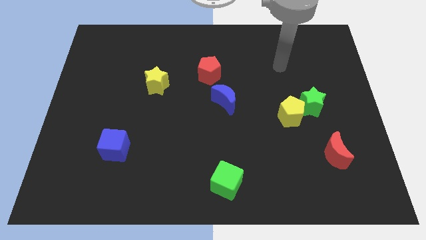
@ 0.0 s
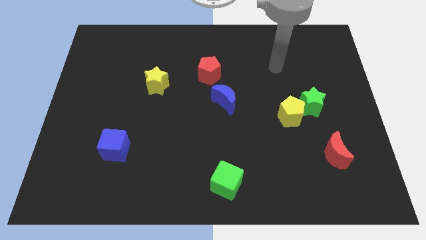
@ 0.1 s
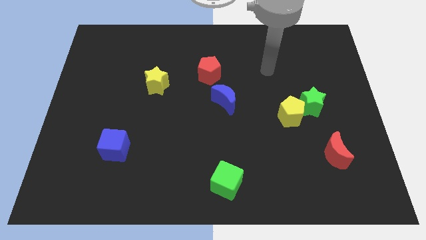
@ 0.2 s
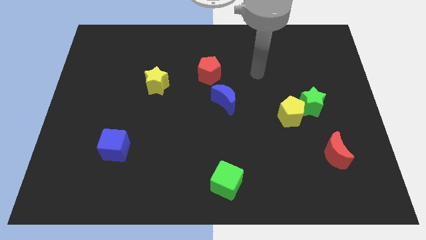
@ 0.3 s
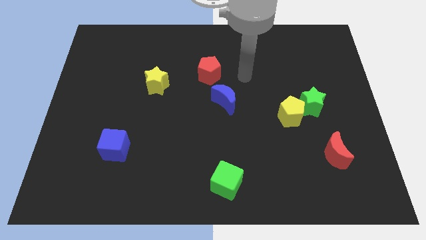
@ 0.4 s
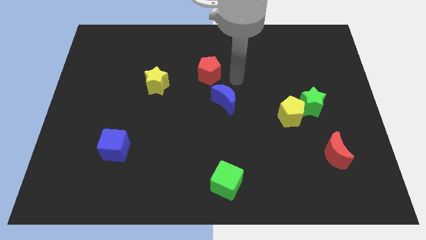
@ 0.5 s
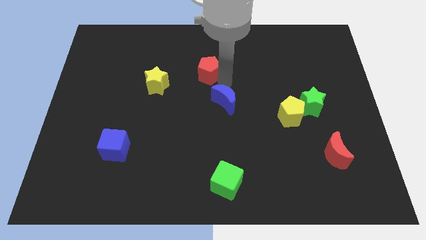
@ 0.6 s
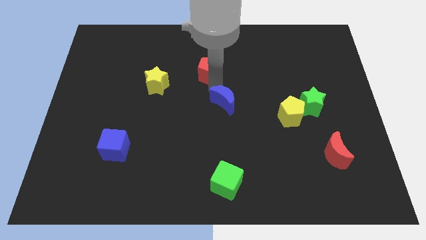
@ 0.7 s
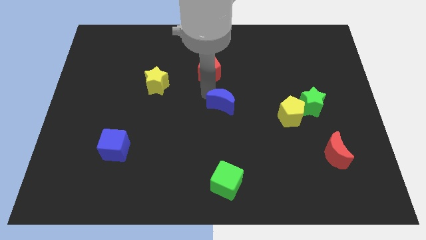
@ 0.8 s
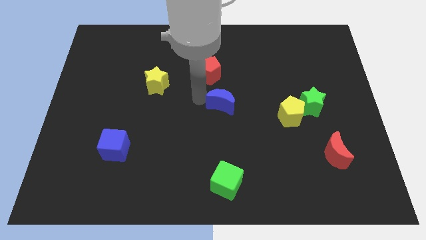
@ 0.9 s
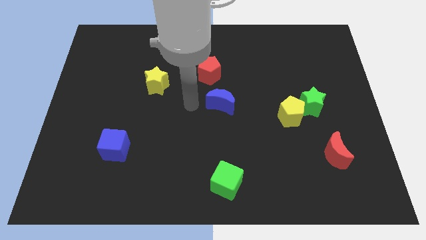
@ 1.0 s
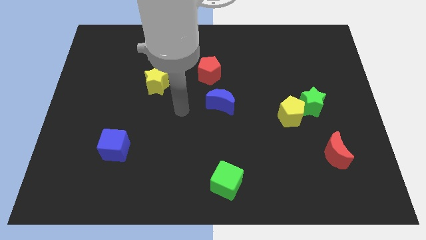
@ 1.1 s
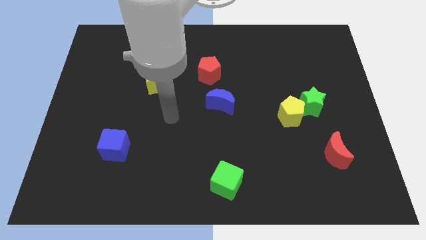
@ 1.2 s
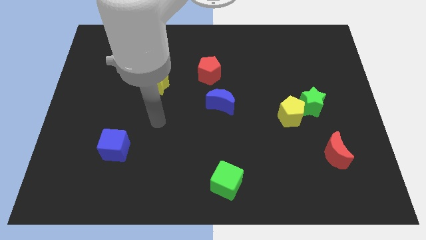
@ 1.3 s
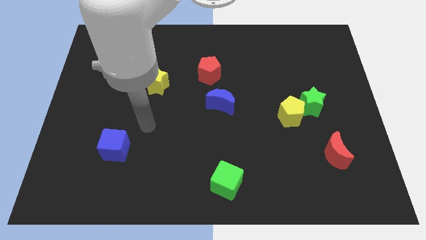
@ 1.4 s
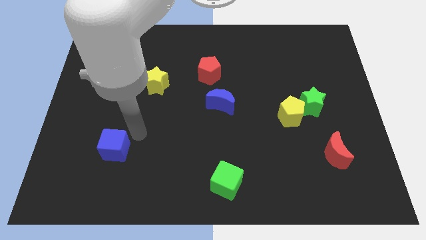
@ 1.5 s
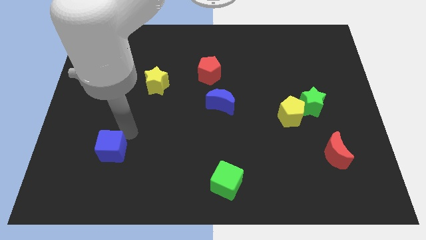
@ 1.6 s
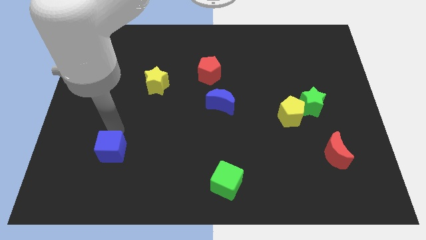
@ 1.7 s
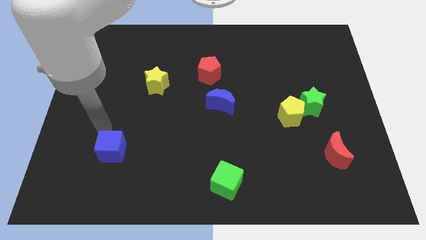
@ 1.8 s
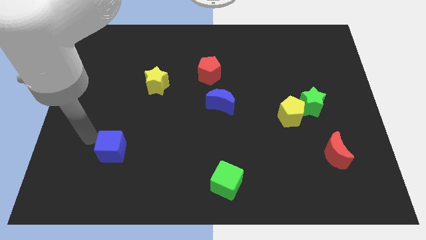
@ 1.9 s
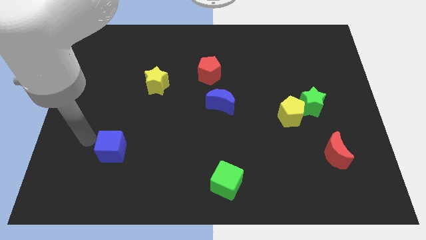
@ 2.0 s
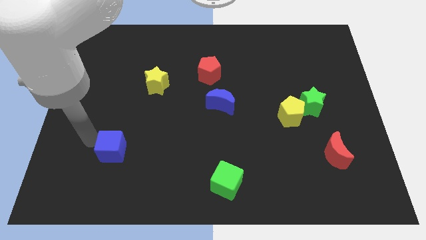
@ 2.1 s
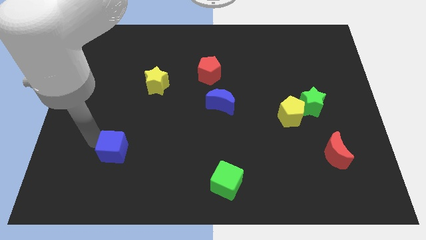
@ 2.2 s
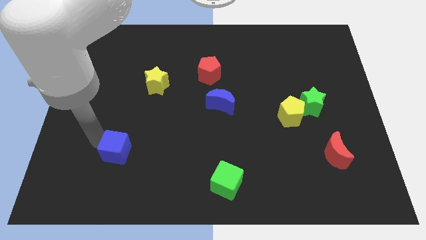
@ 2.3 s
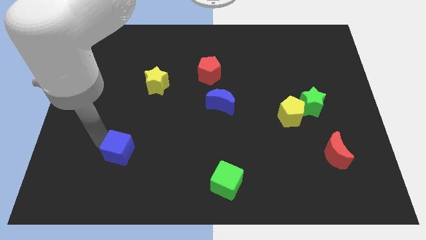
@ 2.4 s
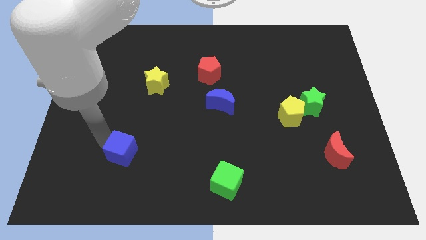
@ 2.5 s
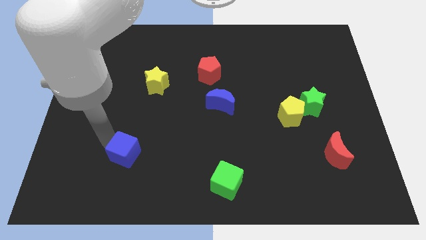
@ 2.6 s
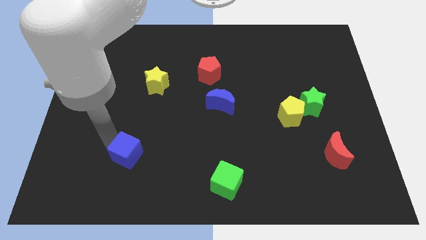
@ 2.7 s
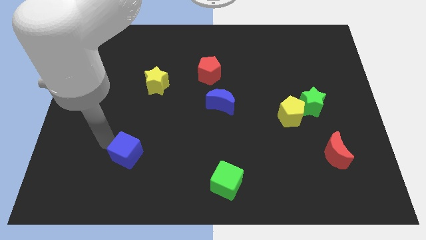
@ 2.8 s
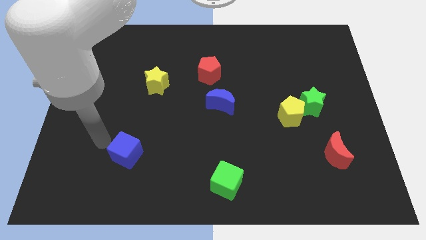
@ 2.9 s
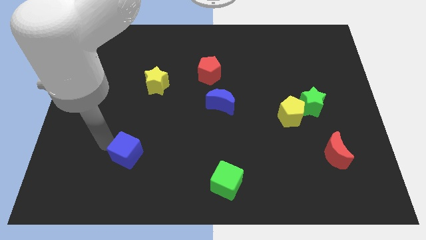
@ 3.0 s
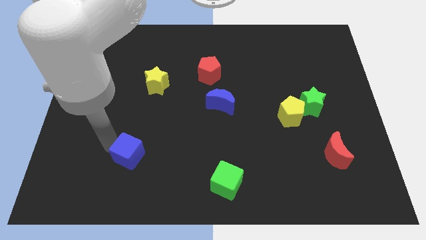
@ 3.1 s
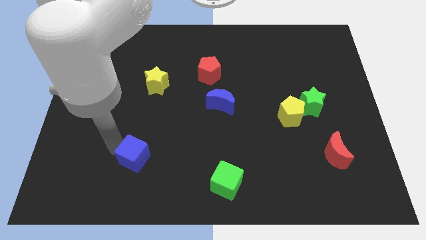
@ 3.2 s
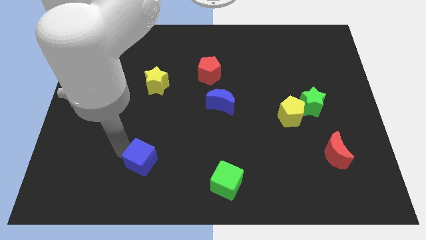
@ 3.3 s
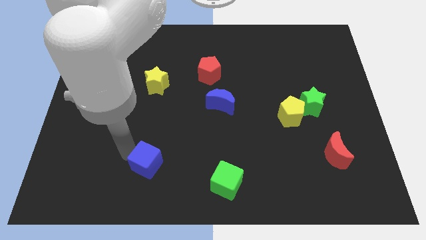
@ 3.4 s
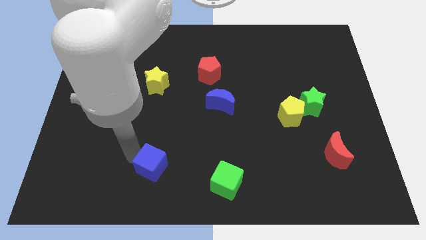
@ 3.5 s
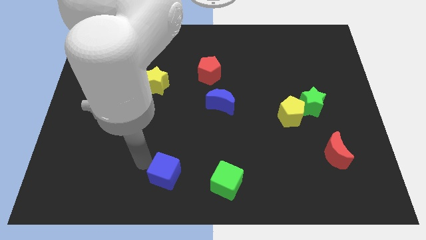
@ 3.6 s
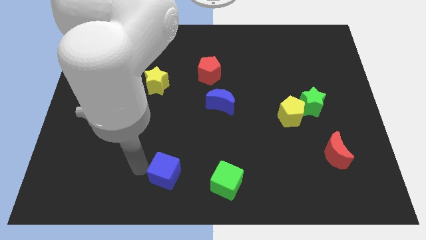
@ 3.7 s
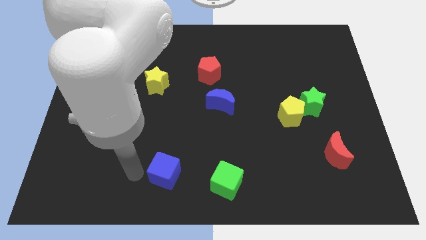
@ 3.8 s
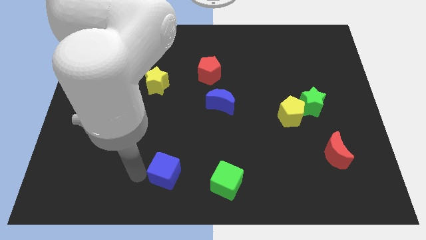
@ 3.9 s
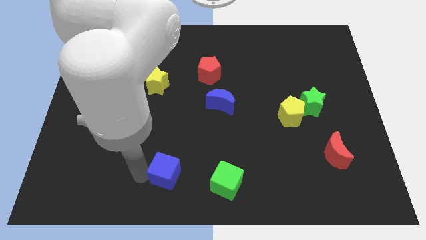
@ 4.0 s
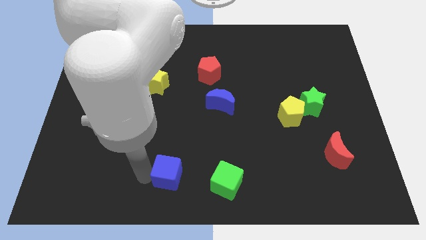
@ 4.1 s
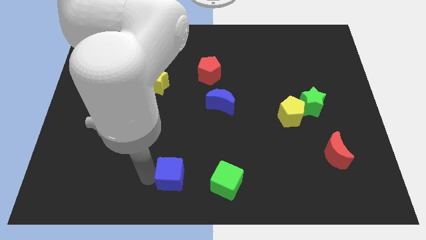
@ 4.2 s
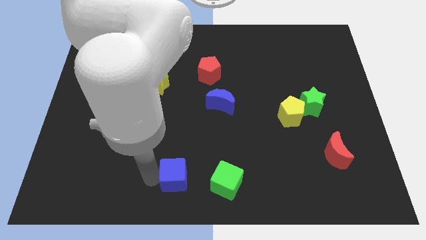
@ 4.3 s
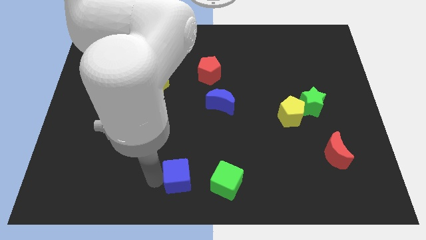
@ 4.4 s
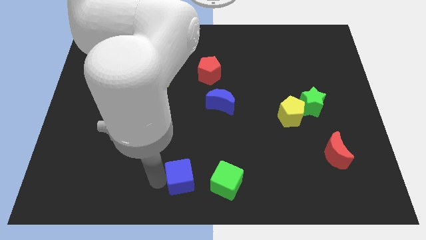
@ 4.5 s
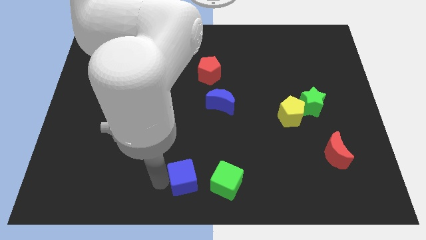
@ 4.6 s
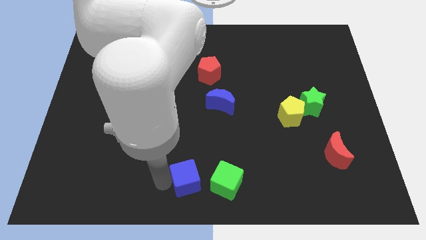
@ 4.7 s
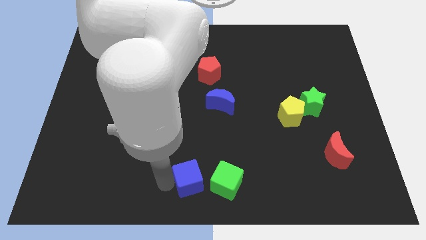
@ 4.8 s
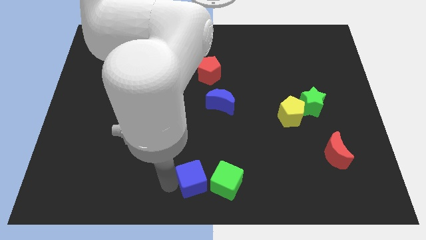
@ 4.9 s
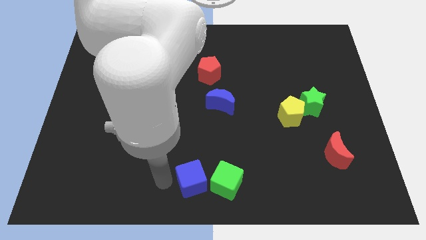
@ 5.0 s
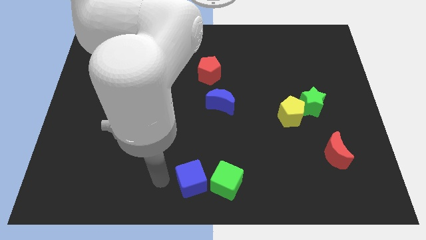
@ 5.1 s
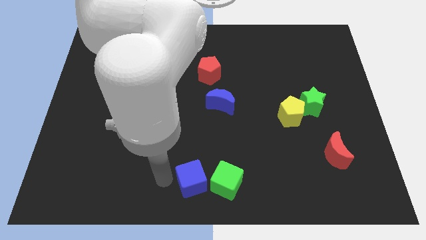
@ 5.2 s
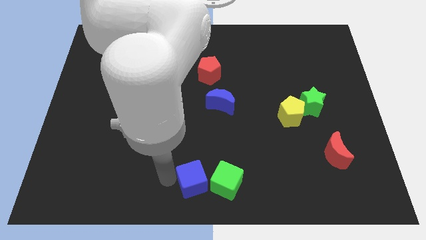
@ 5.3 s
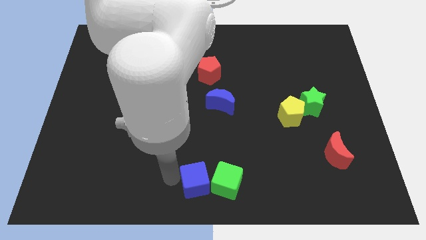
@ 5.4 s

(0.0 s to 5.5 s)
move the blue cube next to the green cube

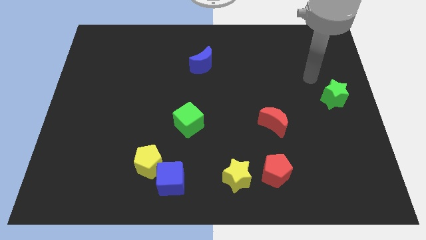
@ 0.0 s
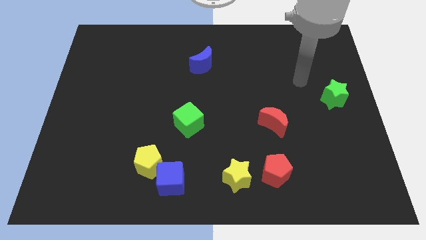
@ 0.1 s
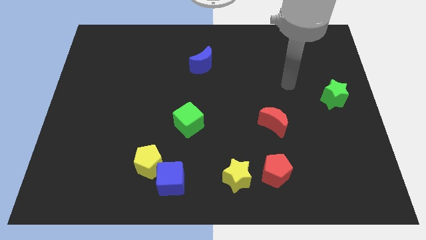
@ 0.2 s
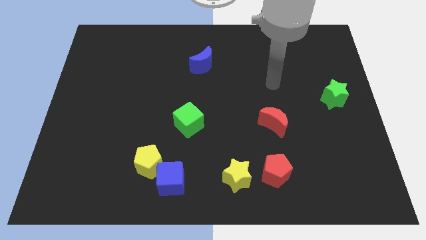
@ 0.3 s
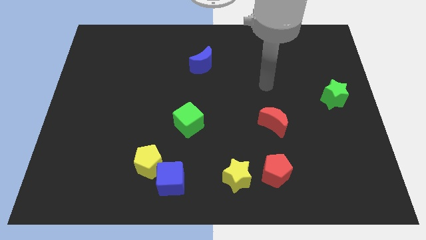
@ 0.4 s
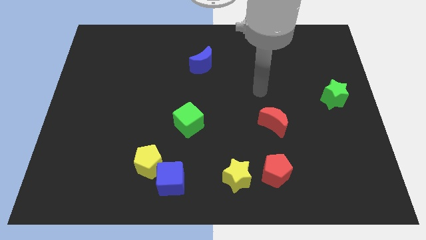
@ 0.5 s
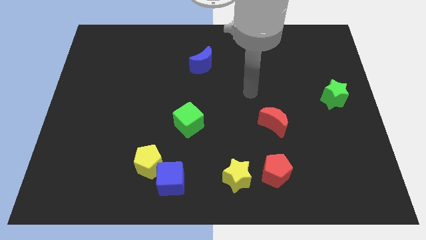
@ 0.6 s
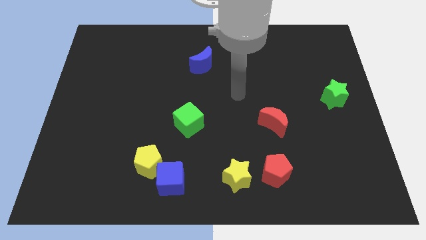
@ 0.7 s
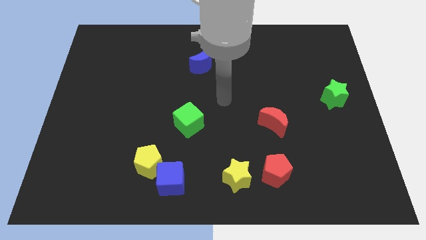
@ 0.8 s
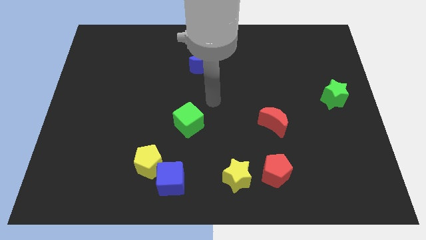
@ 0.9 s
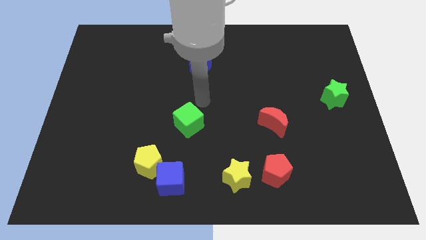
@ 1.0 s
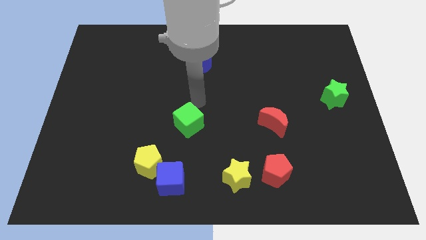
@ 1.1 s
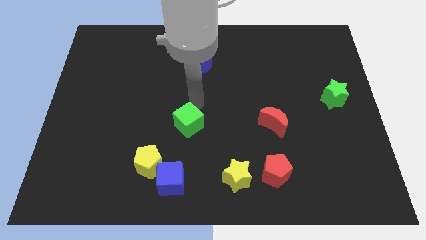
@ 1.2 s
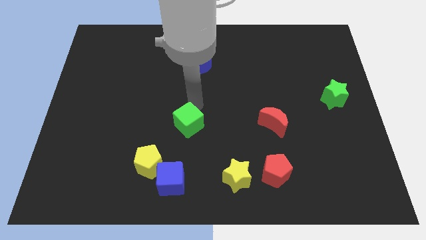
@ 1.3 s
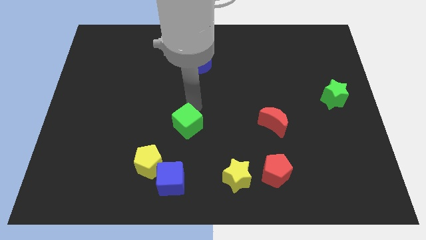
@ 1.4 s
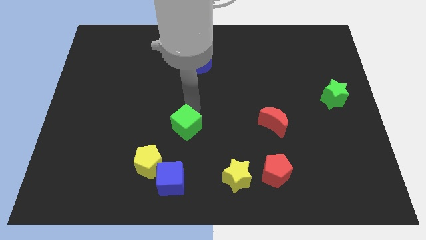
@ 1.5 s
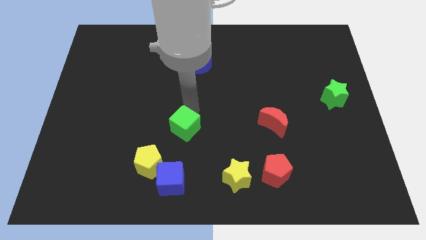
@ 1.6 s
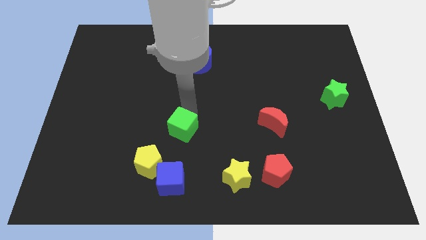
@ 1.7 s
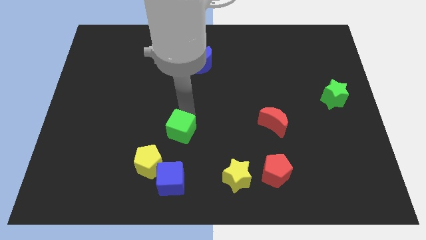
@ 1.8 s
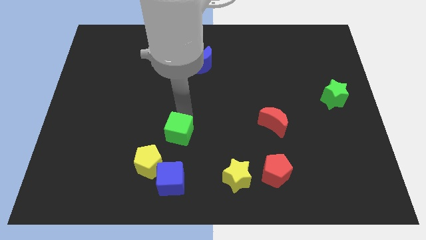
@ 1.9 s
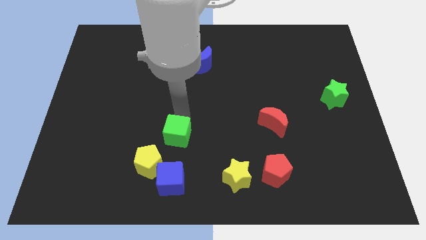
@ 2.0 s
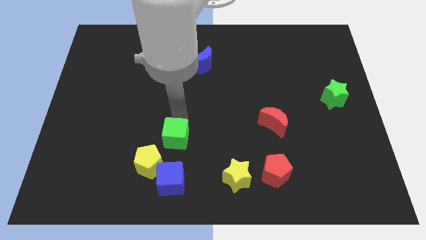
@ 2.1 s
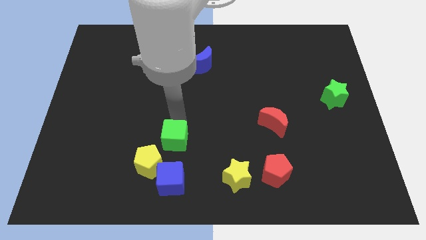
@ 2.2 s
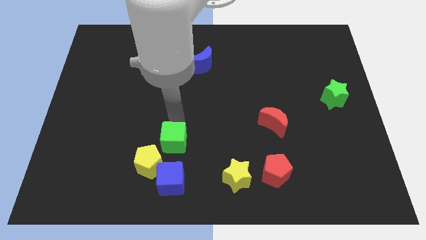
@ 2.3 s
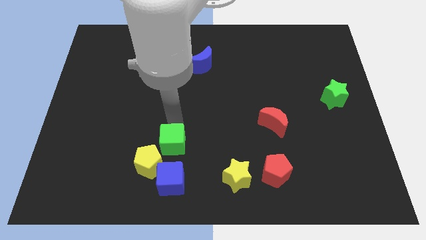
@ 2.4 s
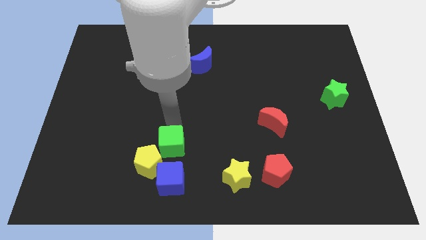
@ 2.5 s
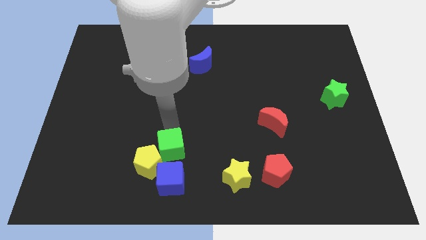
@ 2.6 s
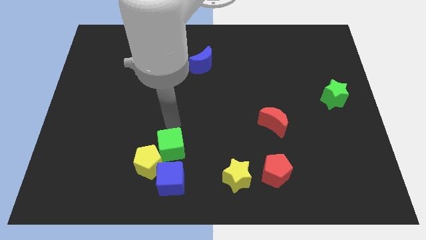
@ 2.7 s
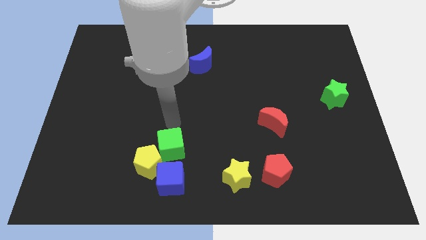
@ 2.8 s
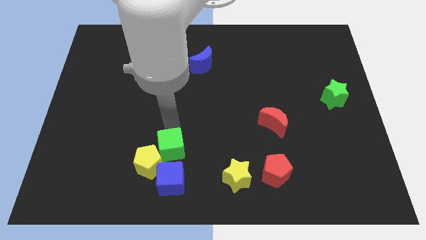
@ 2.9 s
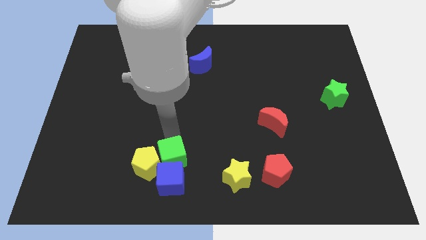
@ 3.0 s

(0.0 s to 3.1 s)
put the green cube close to the blue cube
